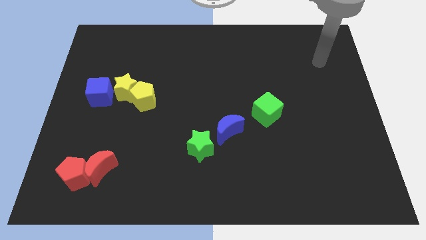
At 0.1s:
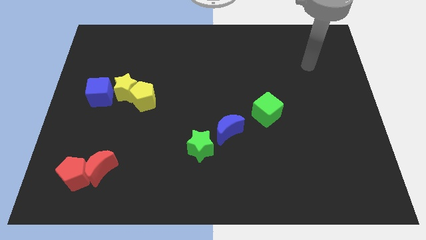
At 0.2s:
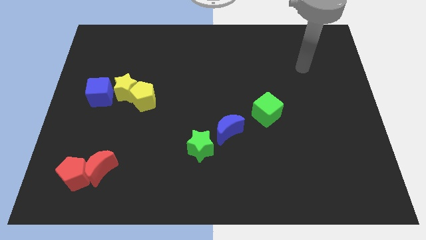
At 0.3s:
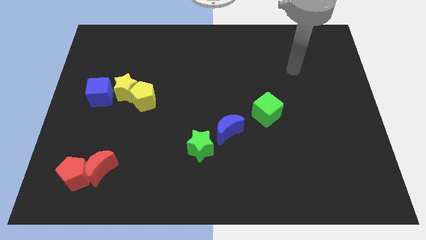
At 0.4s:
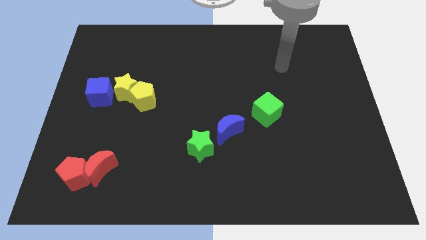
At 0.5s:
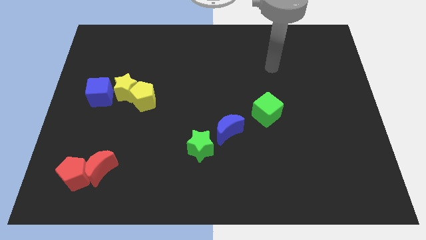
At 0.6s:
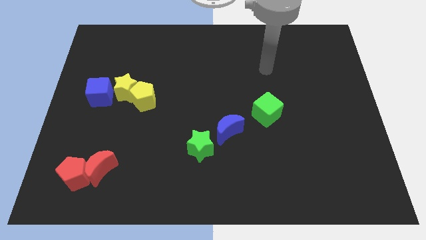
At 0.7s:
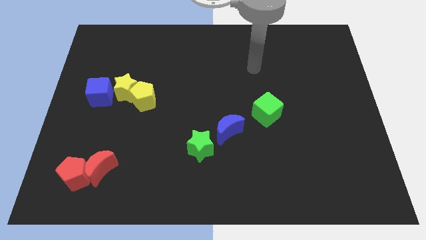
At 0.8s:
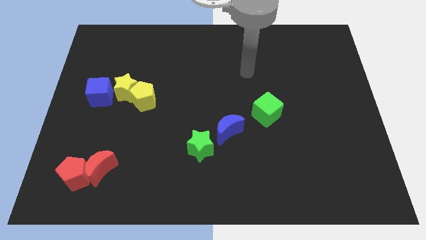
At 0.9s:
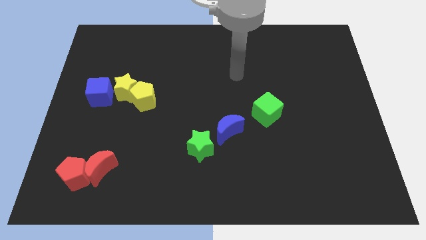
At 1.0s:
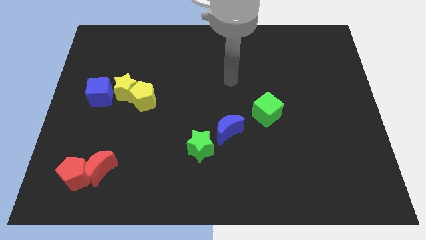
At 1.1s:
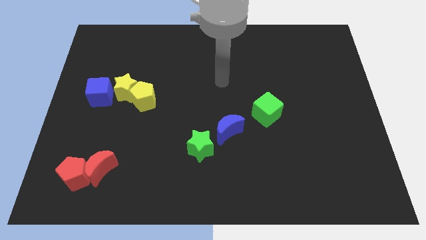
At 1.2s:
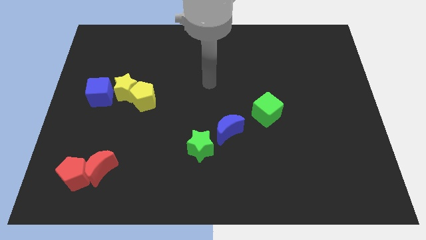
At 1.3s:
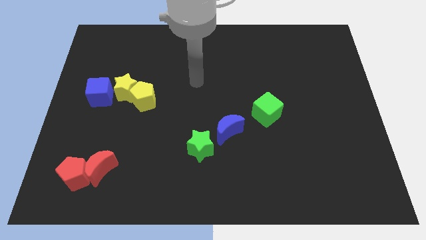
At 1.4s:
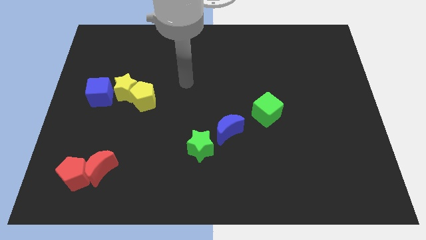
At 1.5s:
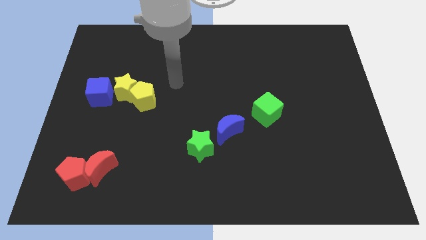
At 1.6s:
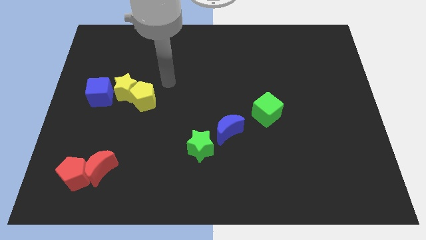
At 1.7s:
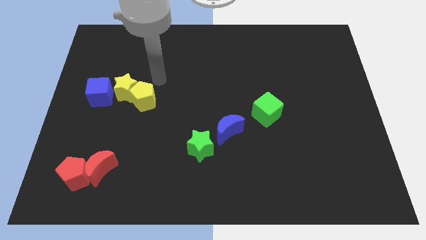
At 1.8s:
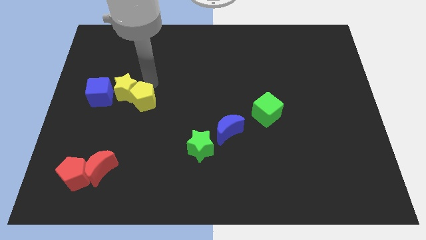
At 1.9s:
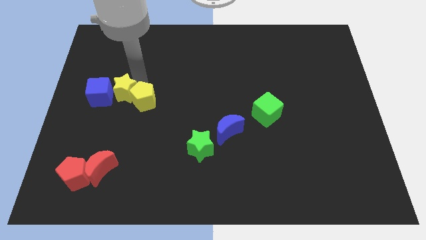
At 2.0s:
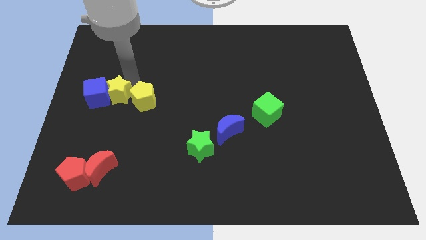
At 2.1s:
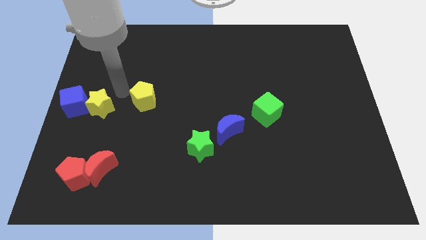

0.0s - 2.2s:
move the yellow pentagon away from the yellow star

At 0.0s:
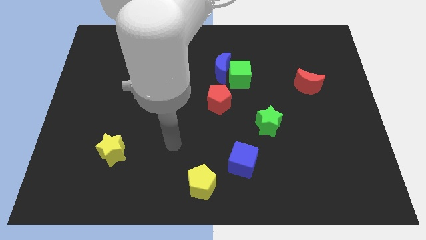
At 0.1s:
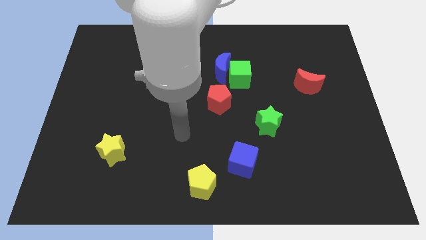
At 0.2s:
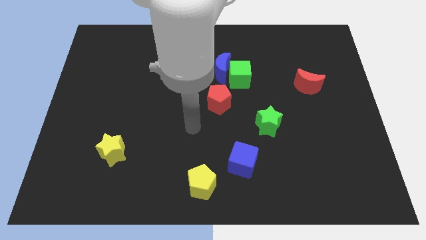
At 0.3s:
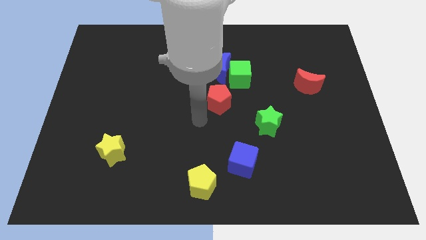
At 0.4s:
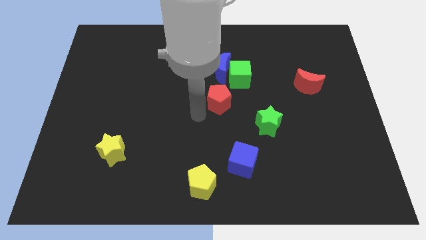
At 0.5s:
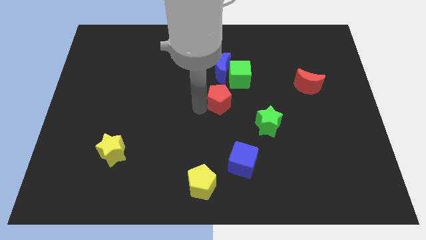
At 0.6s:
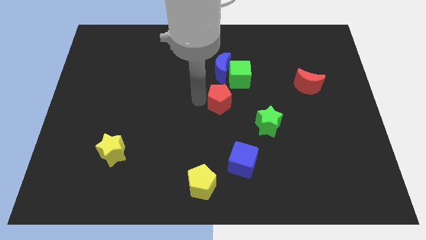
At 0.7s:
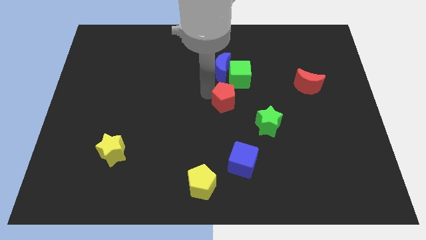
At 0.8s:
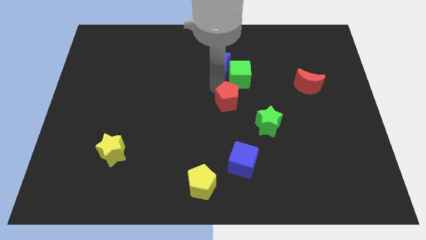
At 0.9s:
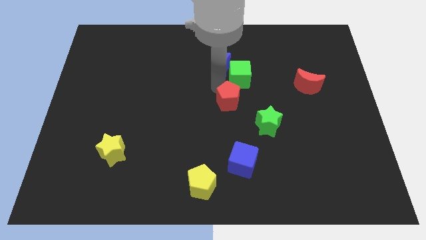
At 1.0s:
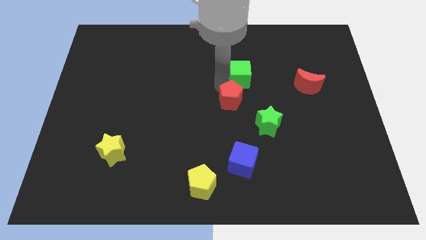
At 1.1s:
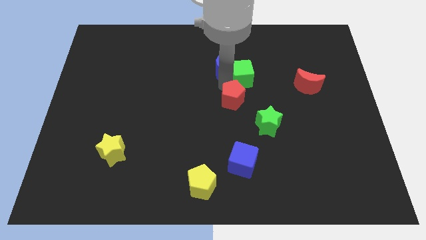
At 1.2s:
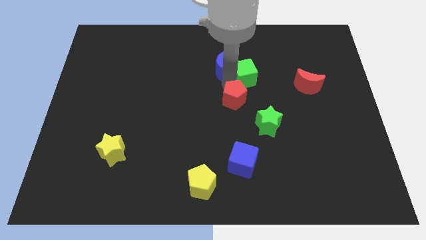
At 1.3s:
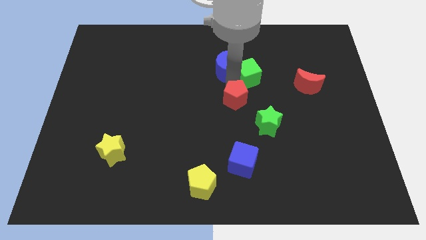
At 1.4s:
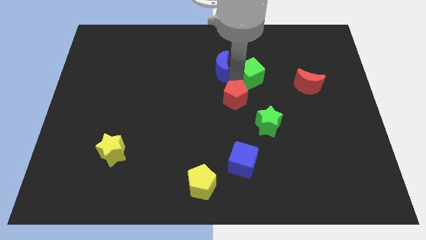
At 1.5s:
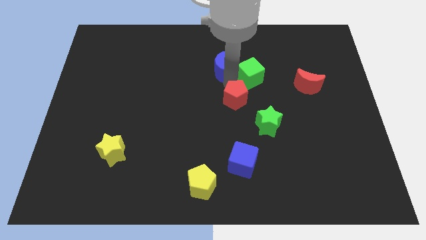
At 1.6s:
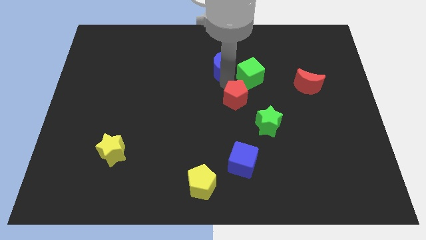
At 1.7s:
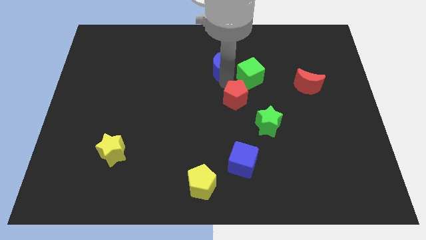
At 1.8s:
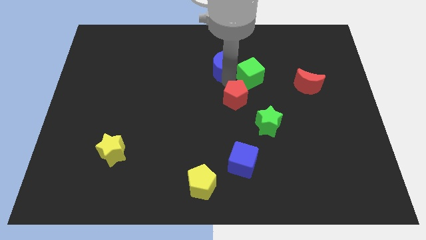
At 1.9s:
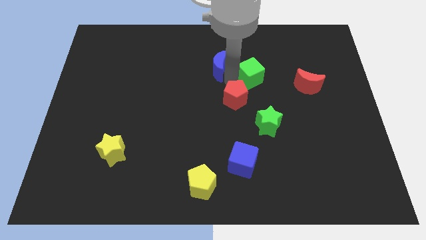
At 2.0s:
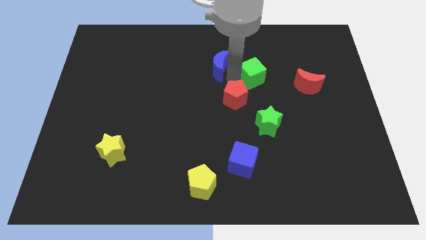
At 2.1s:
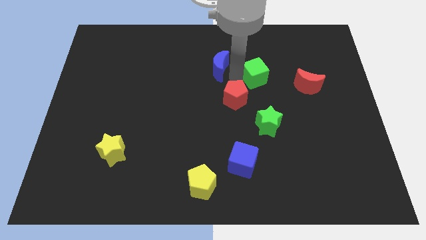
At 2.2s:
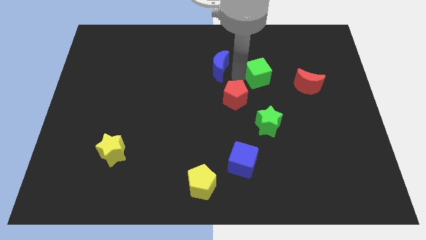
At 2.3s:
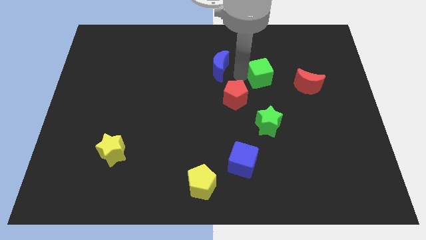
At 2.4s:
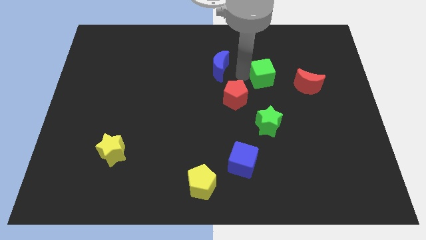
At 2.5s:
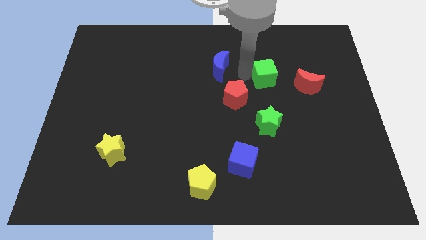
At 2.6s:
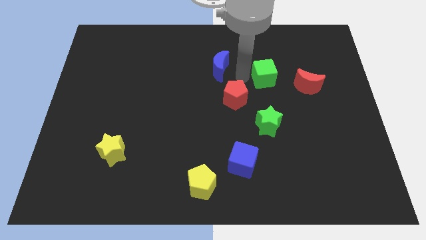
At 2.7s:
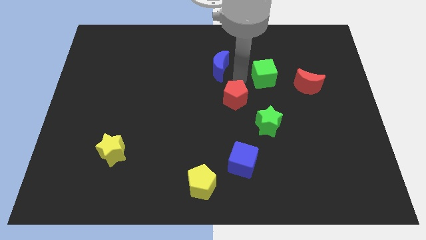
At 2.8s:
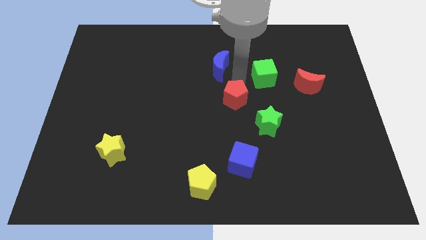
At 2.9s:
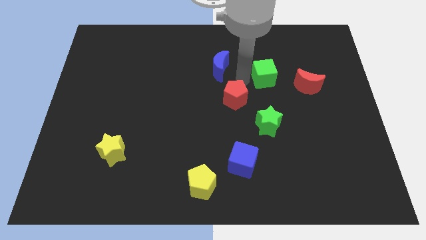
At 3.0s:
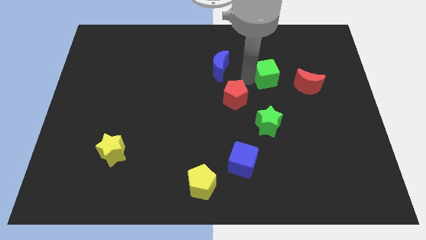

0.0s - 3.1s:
move the green cube away from the blue moon and red pentagon

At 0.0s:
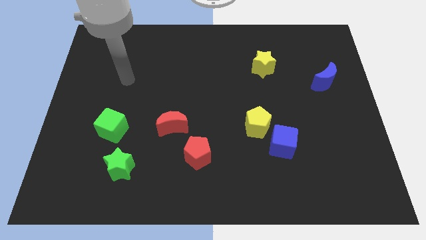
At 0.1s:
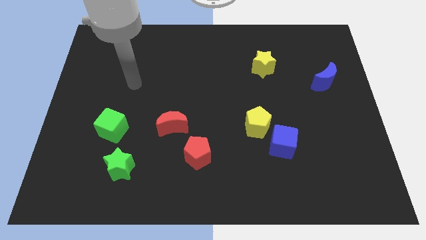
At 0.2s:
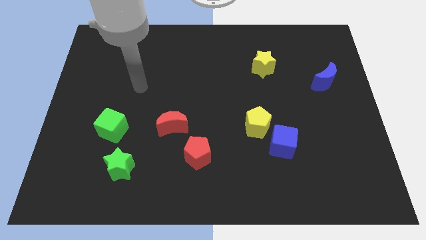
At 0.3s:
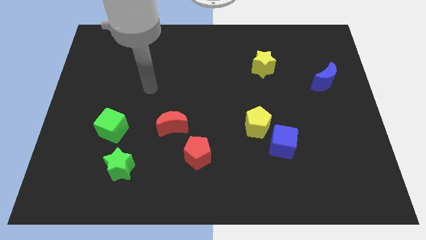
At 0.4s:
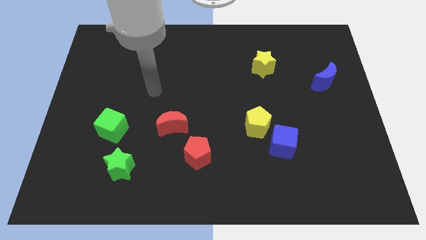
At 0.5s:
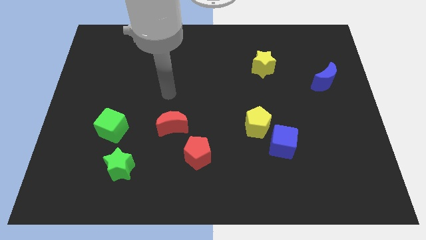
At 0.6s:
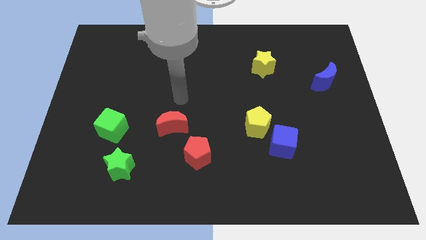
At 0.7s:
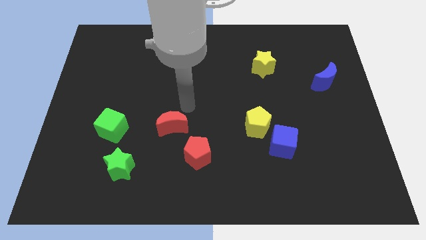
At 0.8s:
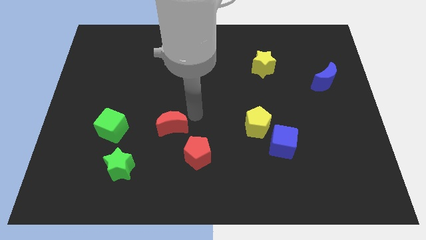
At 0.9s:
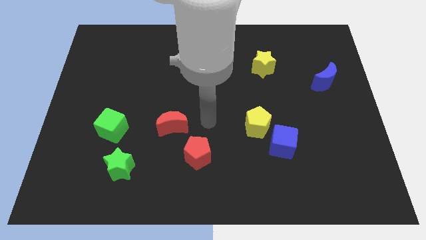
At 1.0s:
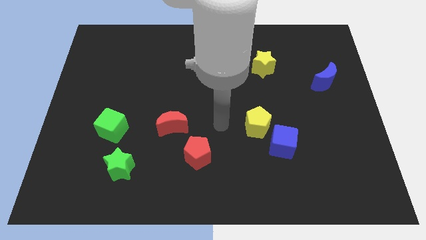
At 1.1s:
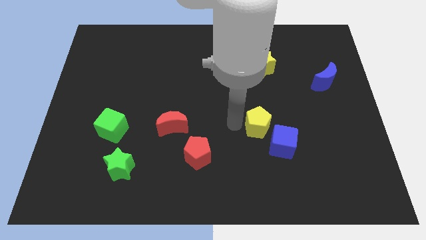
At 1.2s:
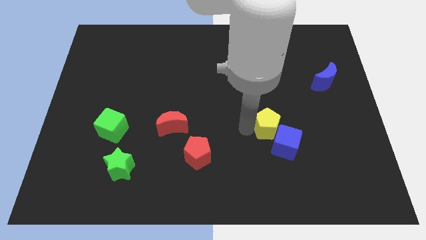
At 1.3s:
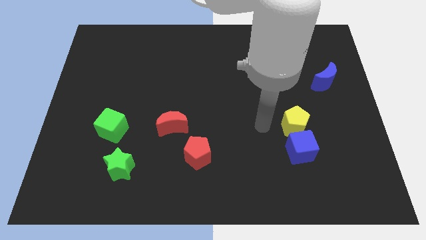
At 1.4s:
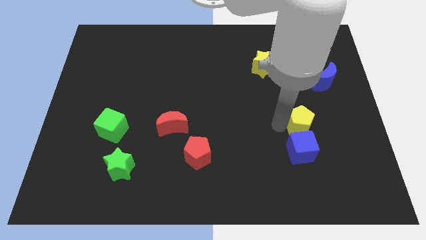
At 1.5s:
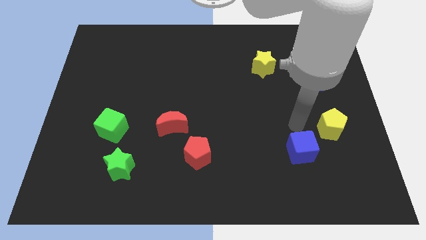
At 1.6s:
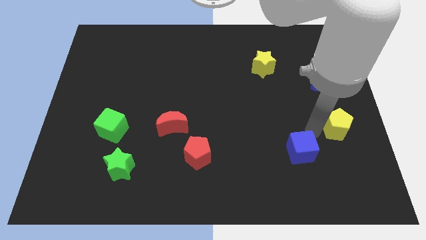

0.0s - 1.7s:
move the blue cube away from the yellow pentagon

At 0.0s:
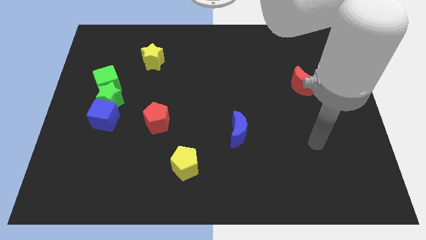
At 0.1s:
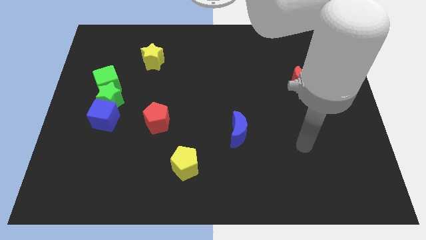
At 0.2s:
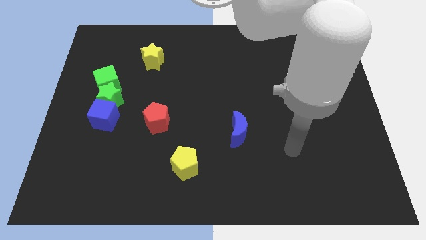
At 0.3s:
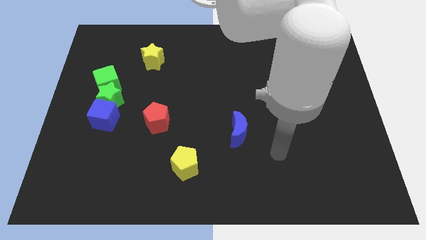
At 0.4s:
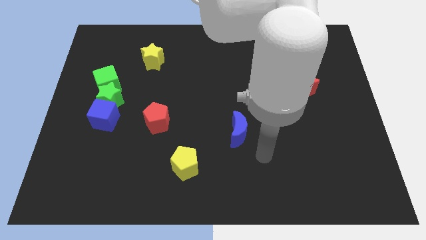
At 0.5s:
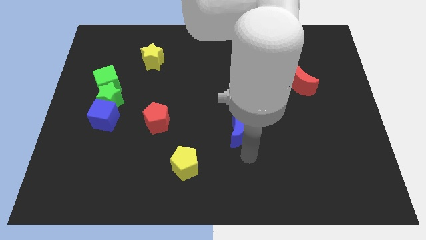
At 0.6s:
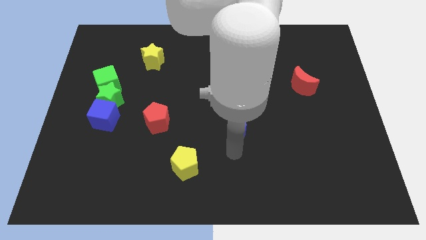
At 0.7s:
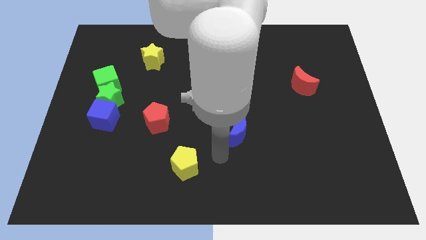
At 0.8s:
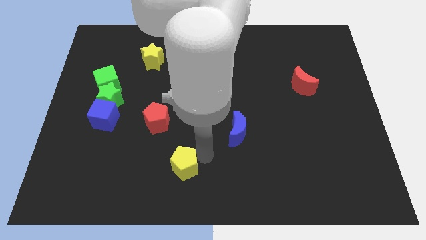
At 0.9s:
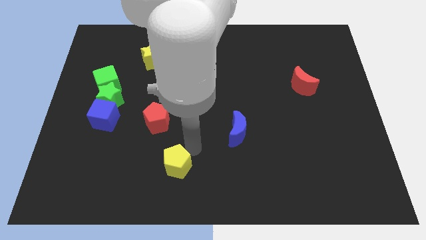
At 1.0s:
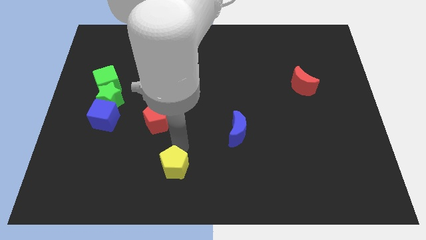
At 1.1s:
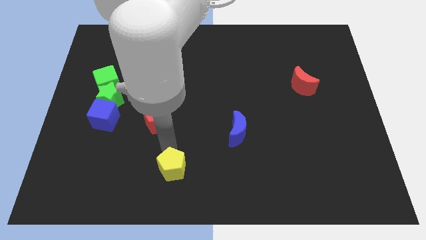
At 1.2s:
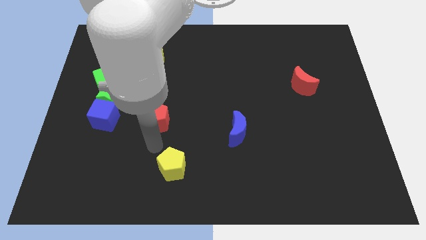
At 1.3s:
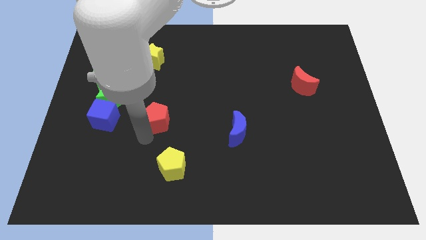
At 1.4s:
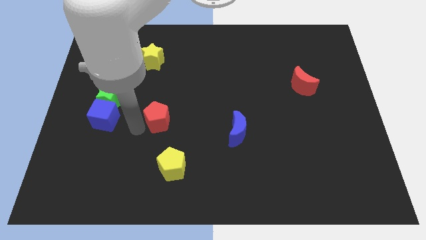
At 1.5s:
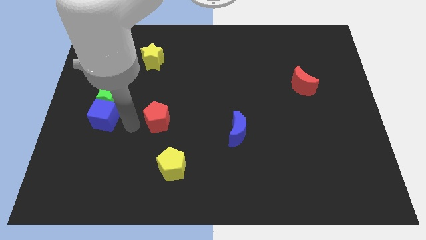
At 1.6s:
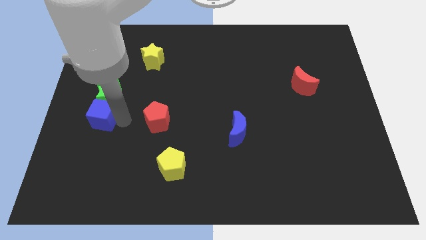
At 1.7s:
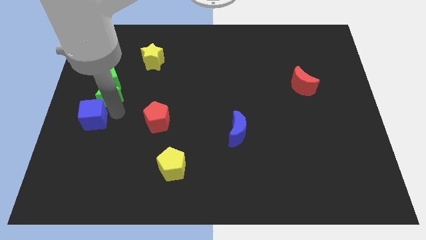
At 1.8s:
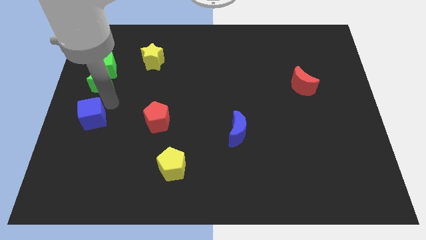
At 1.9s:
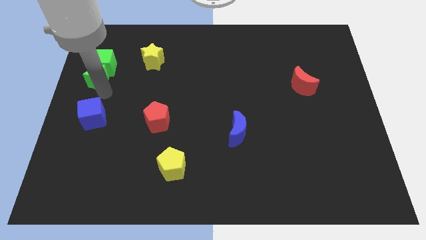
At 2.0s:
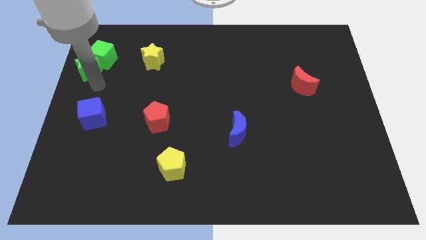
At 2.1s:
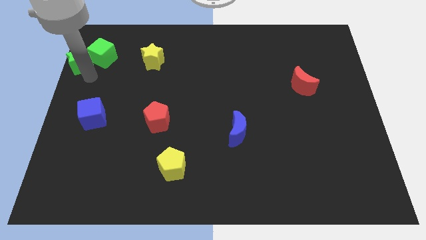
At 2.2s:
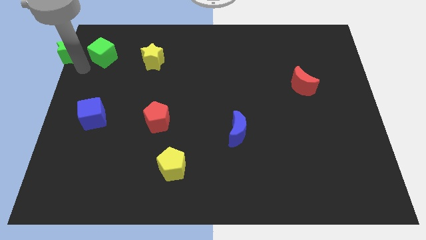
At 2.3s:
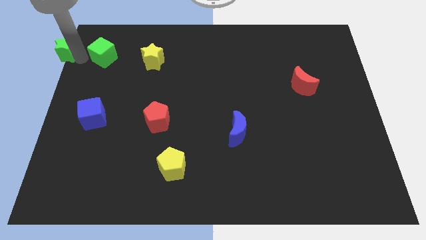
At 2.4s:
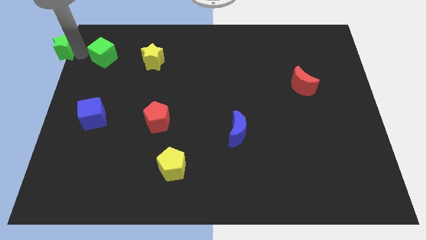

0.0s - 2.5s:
separate the green cube from the green star

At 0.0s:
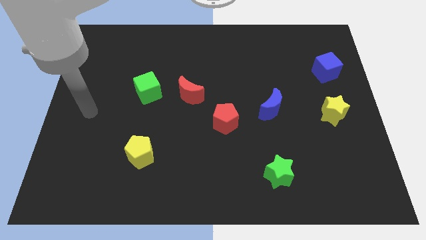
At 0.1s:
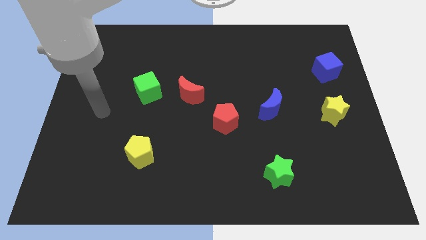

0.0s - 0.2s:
pull the red moon apart from the green cube
